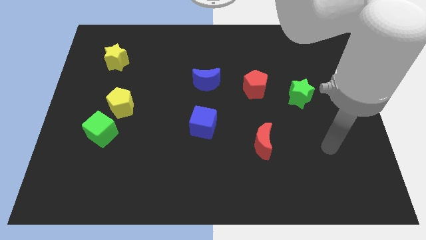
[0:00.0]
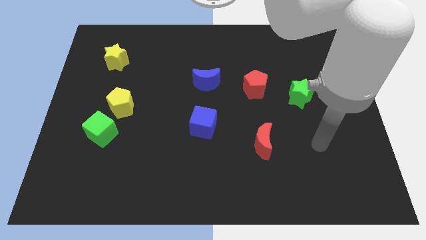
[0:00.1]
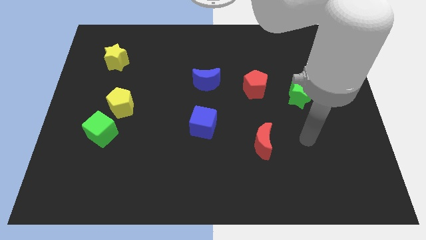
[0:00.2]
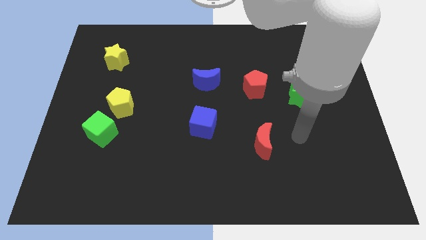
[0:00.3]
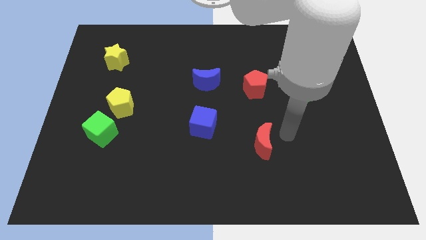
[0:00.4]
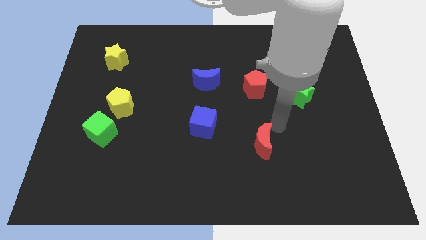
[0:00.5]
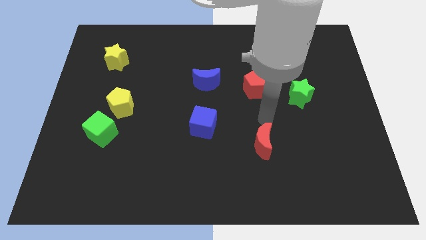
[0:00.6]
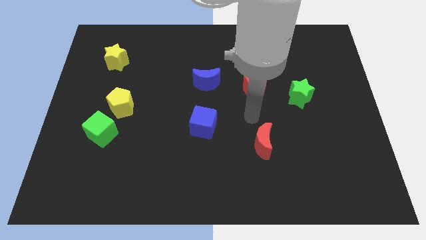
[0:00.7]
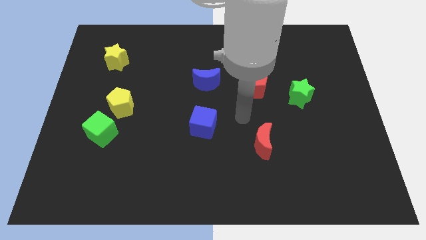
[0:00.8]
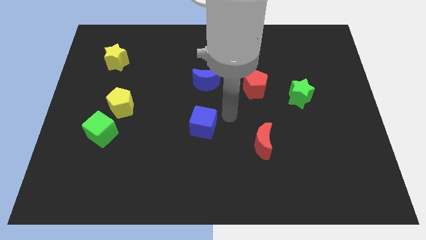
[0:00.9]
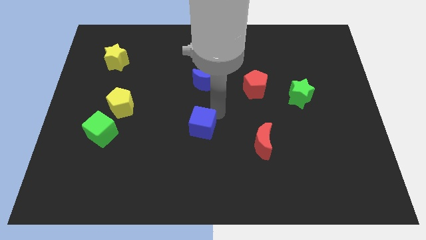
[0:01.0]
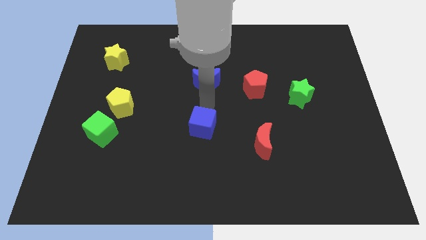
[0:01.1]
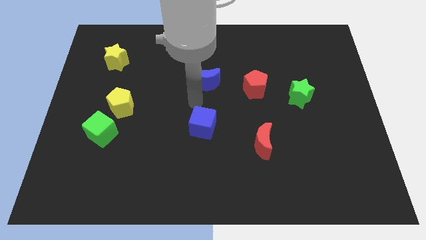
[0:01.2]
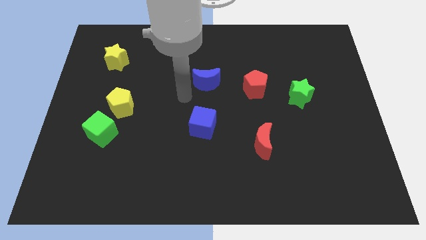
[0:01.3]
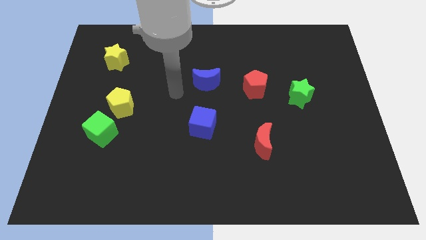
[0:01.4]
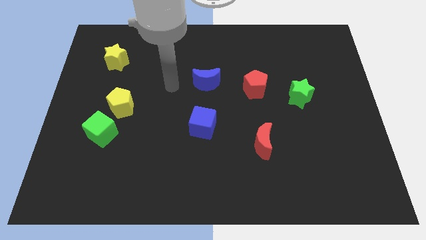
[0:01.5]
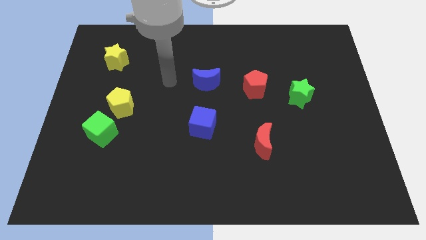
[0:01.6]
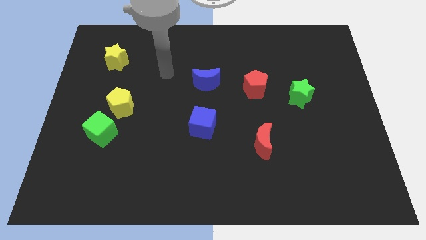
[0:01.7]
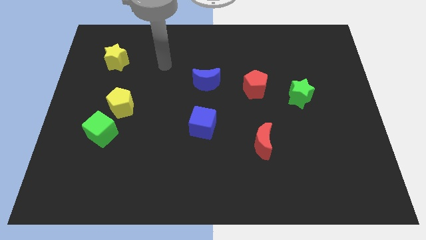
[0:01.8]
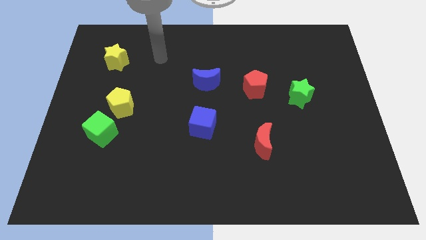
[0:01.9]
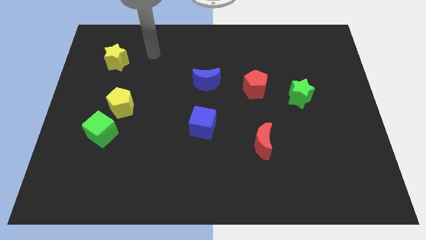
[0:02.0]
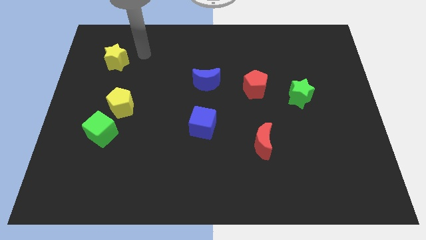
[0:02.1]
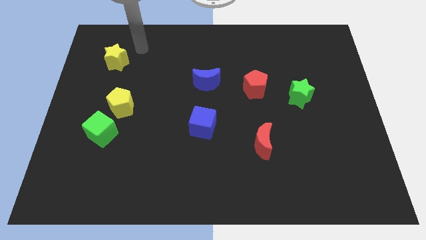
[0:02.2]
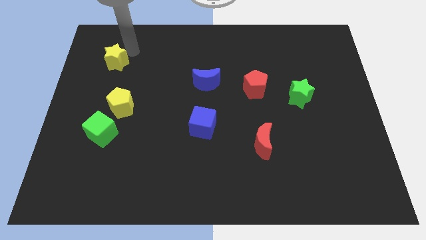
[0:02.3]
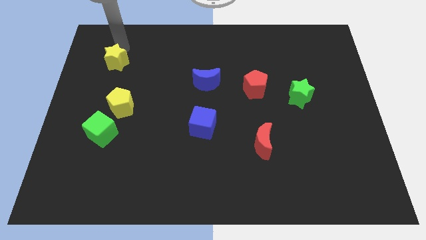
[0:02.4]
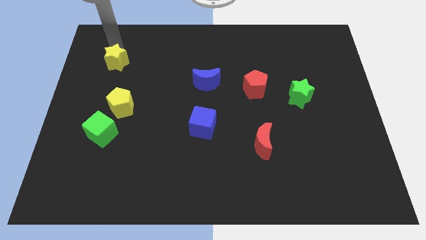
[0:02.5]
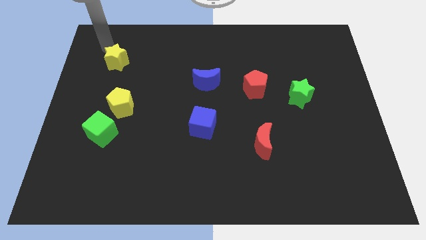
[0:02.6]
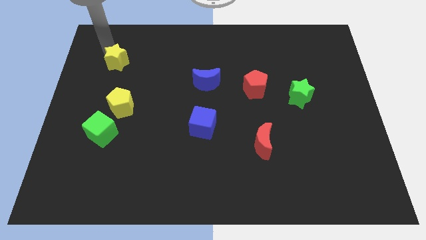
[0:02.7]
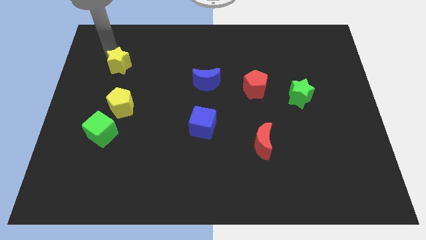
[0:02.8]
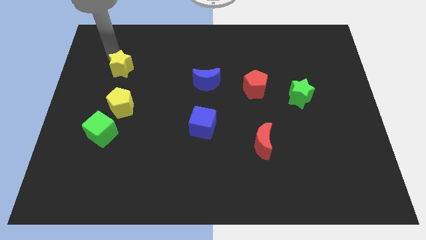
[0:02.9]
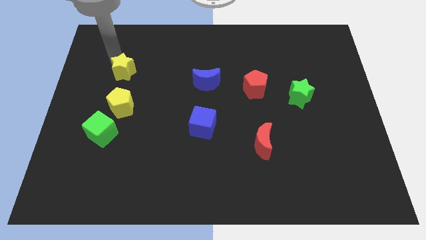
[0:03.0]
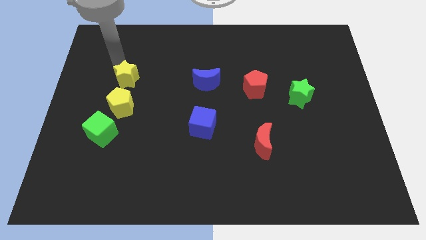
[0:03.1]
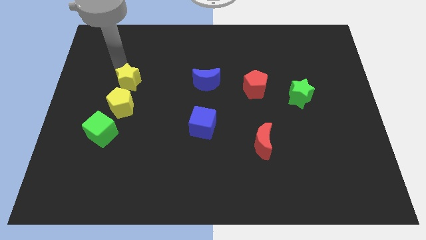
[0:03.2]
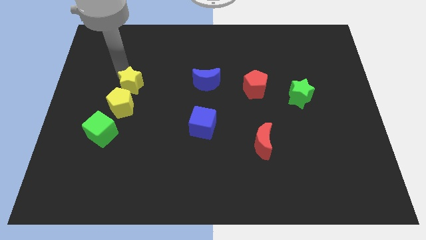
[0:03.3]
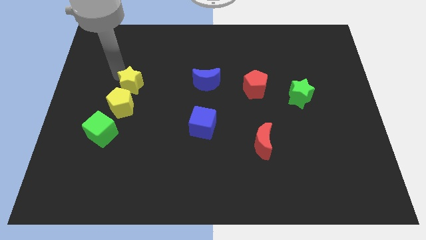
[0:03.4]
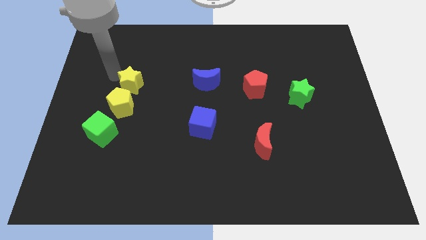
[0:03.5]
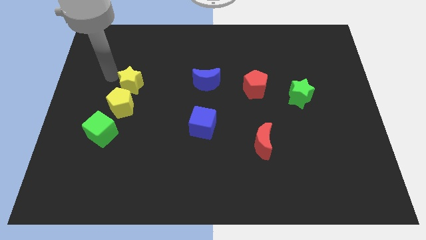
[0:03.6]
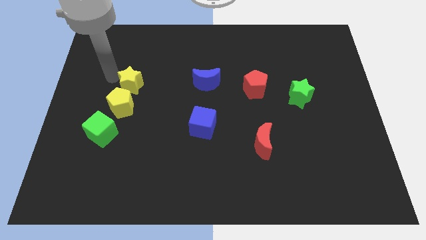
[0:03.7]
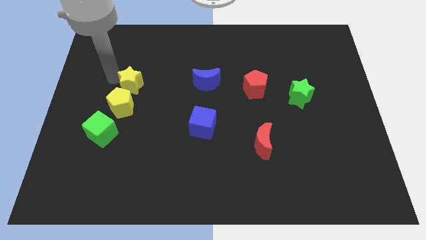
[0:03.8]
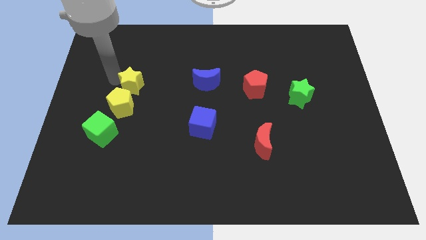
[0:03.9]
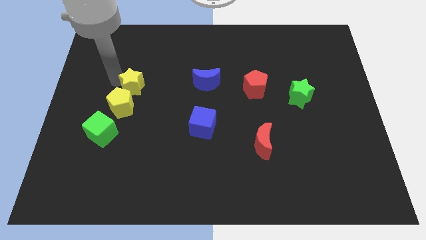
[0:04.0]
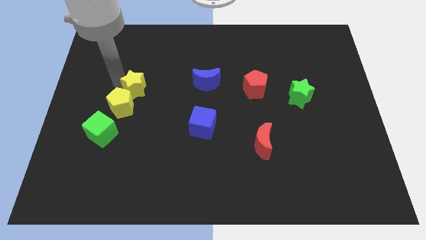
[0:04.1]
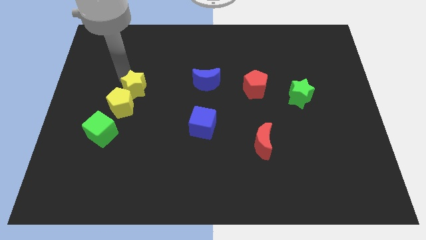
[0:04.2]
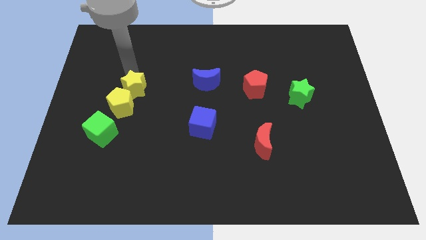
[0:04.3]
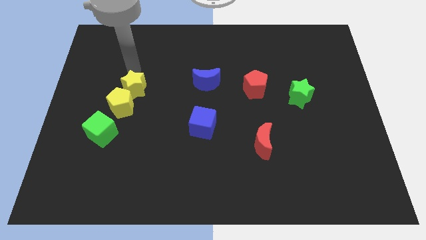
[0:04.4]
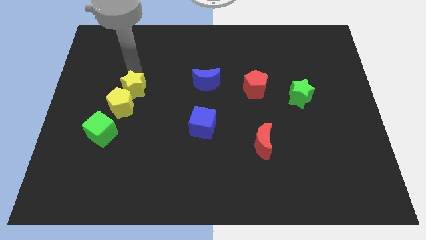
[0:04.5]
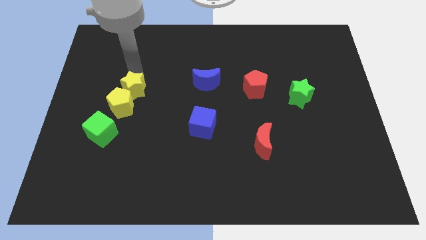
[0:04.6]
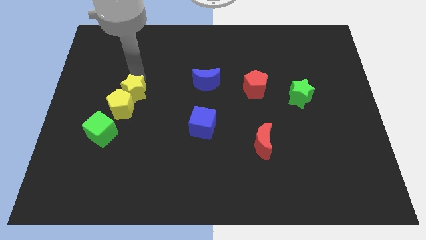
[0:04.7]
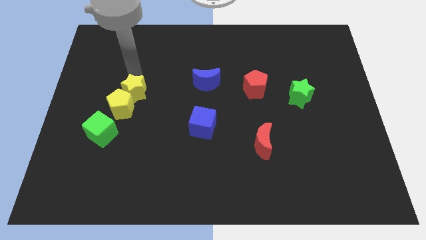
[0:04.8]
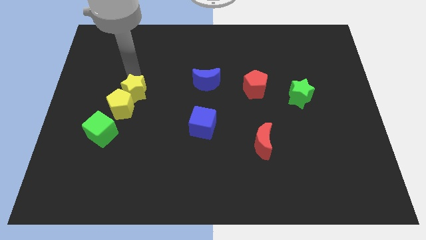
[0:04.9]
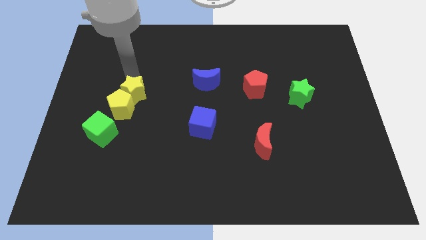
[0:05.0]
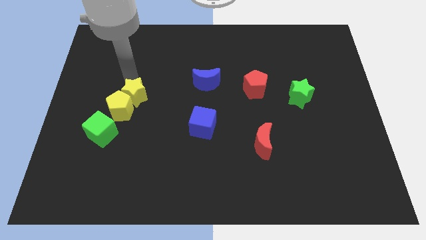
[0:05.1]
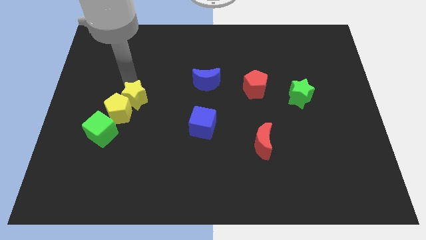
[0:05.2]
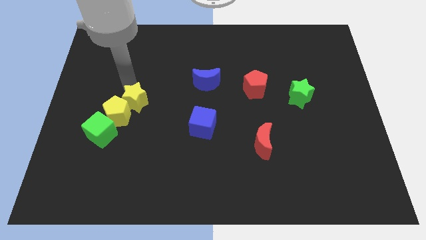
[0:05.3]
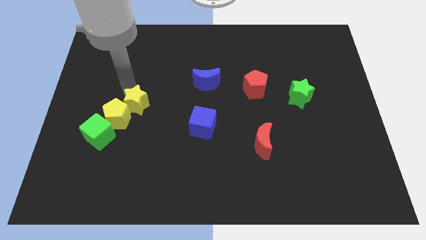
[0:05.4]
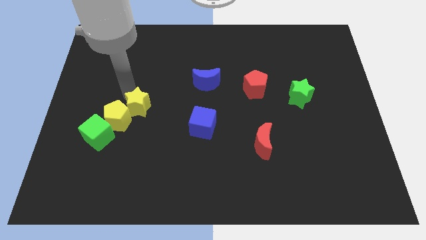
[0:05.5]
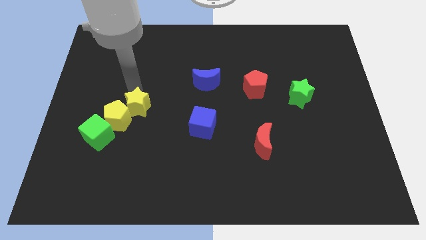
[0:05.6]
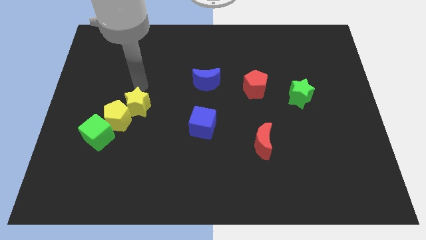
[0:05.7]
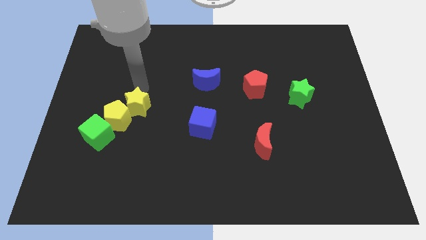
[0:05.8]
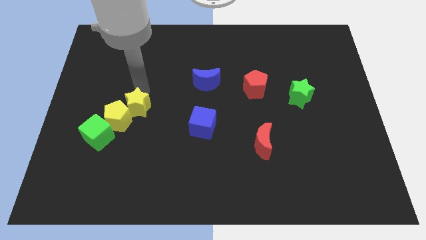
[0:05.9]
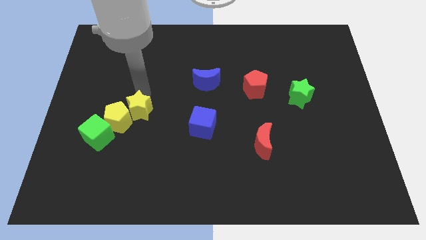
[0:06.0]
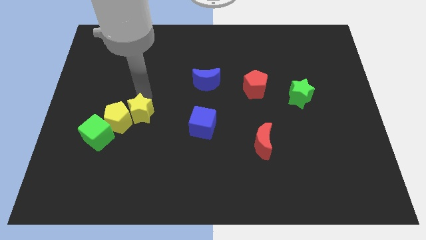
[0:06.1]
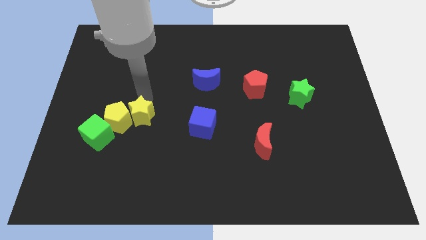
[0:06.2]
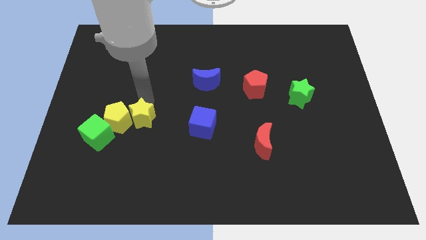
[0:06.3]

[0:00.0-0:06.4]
put the yellow star to the bottom right of the yellow pentagon
